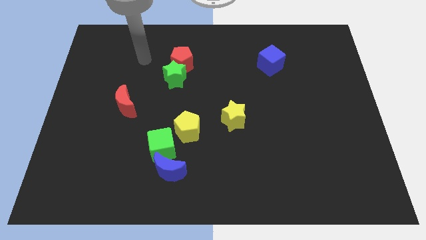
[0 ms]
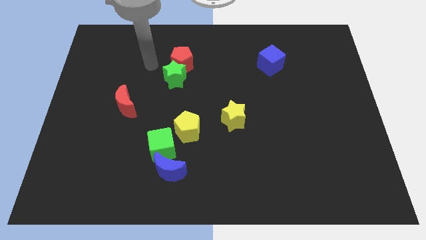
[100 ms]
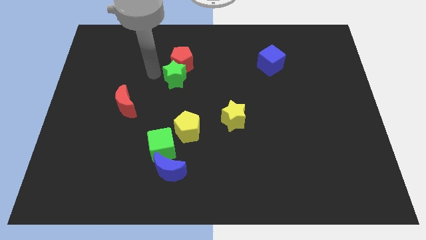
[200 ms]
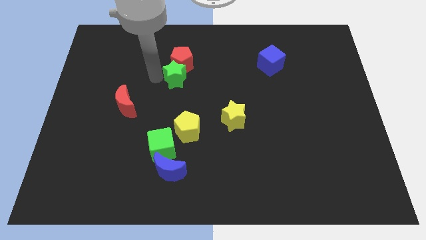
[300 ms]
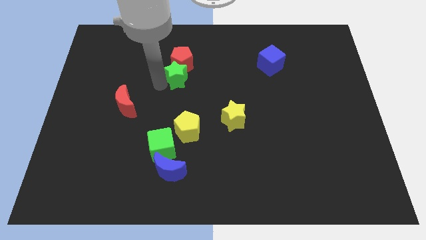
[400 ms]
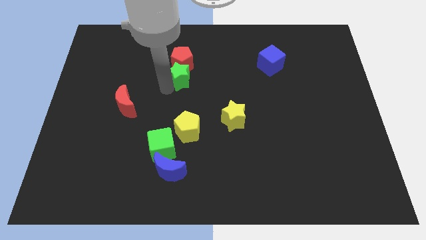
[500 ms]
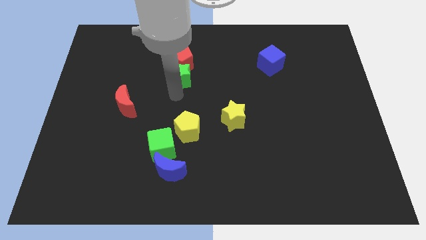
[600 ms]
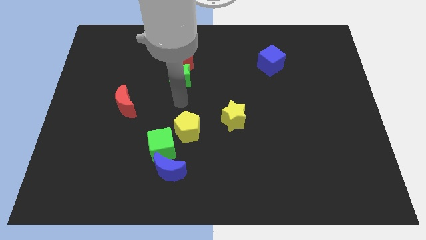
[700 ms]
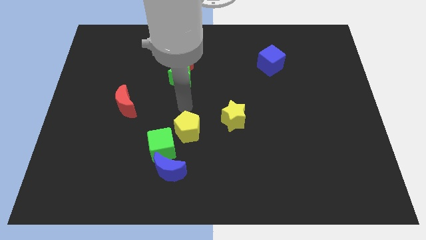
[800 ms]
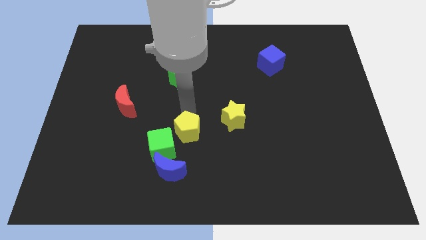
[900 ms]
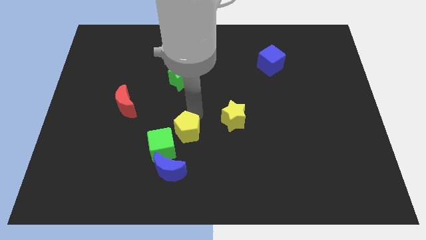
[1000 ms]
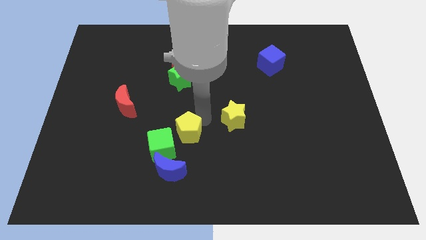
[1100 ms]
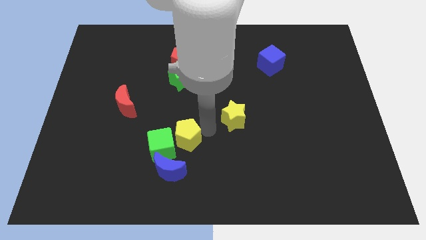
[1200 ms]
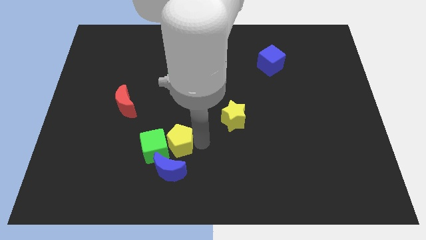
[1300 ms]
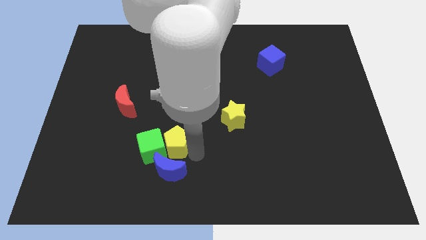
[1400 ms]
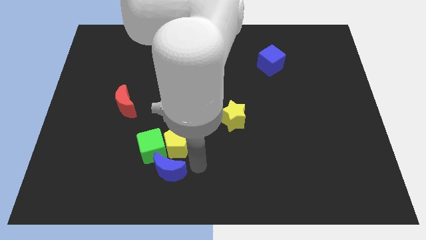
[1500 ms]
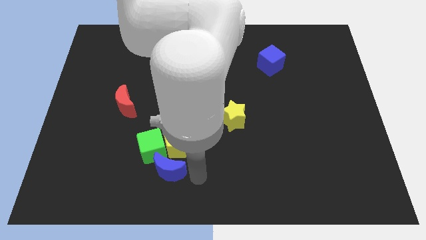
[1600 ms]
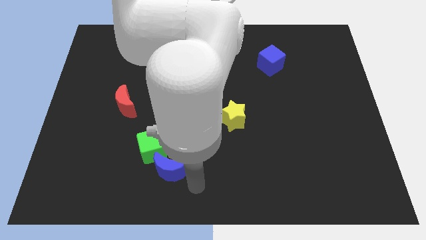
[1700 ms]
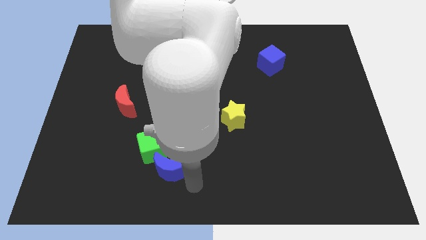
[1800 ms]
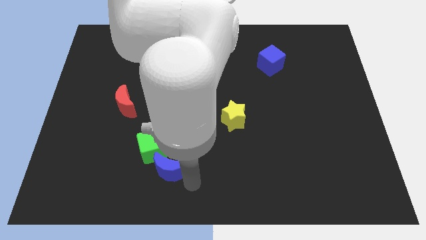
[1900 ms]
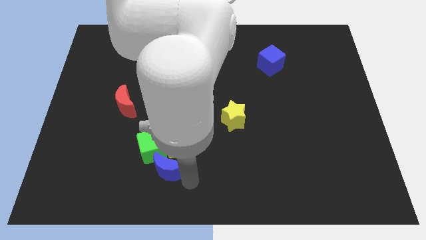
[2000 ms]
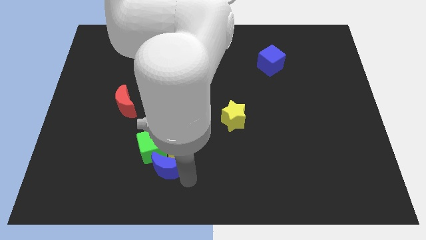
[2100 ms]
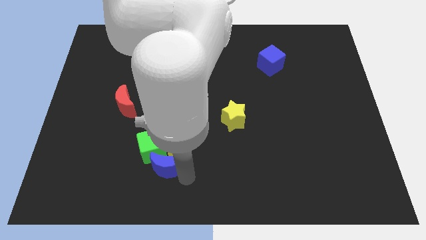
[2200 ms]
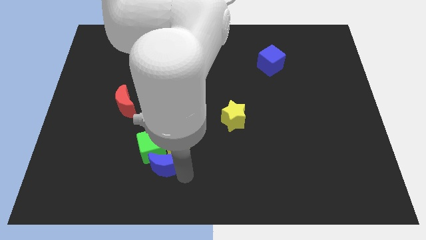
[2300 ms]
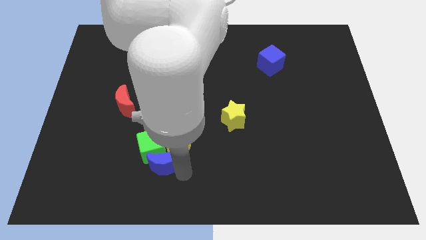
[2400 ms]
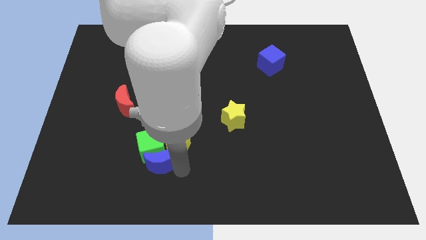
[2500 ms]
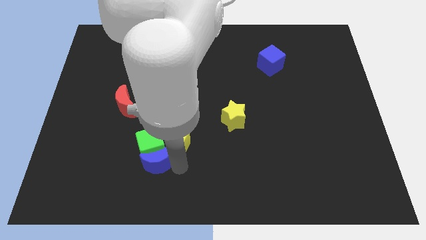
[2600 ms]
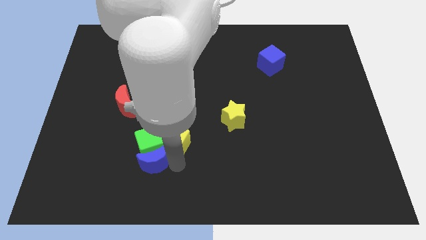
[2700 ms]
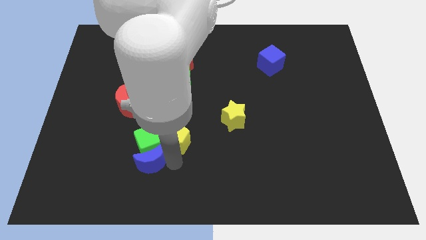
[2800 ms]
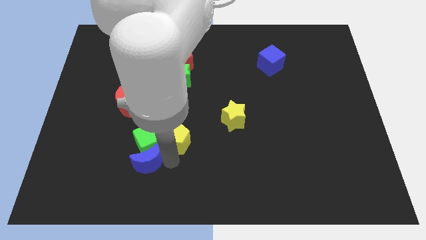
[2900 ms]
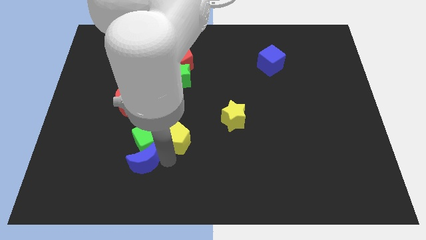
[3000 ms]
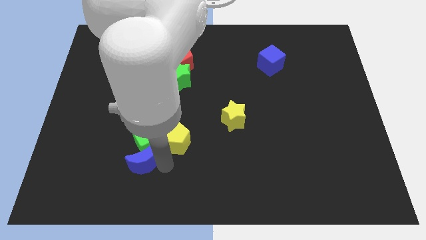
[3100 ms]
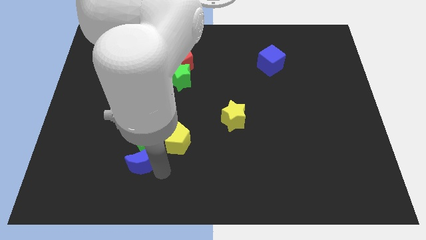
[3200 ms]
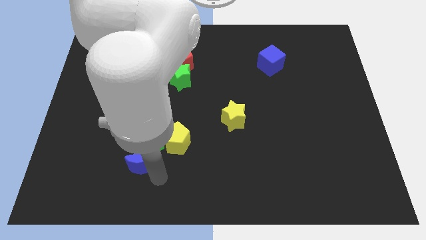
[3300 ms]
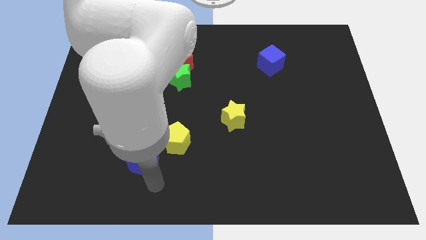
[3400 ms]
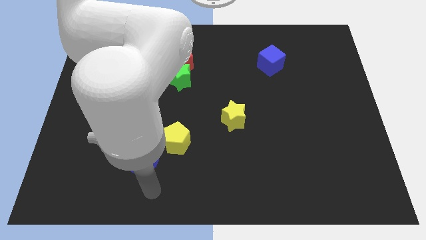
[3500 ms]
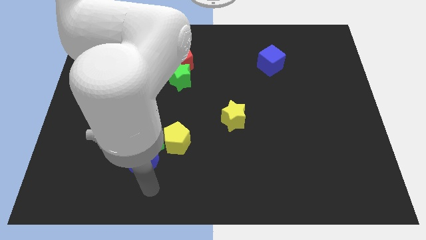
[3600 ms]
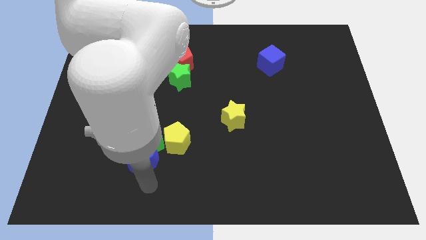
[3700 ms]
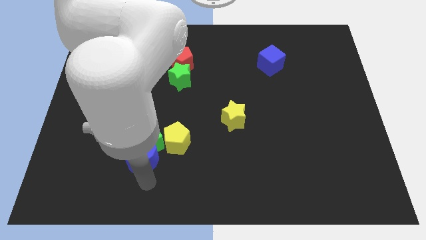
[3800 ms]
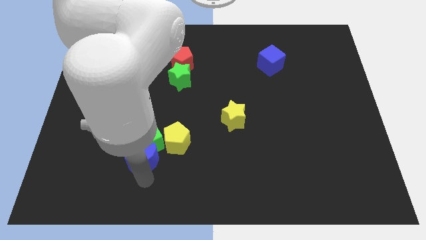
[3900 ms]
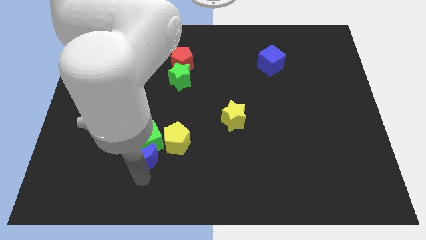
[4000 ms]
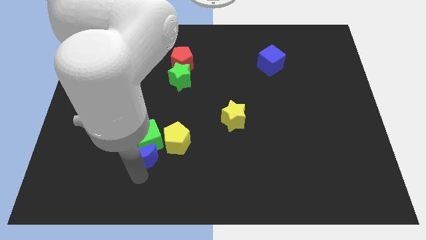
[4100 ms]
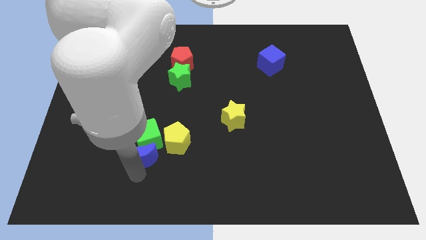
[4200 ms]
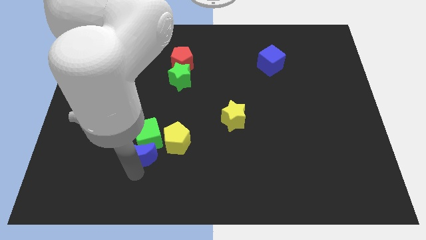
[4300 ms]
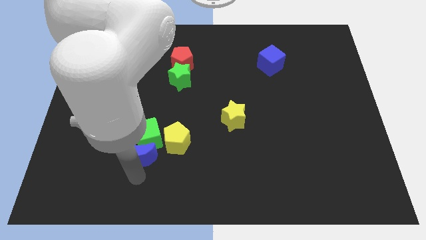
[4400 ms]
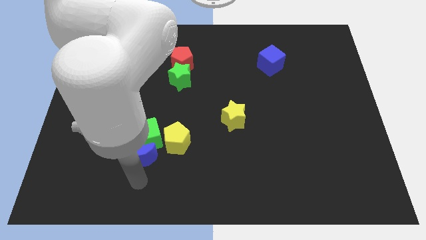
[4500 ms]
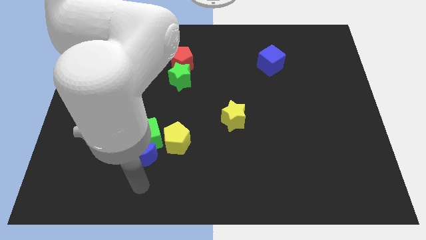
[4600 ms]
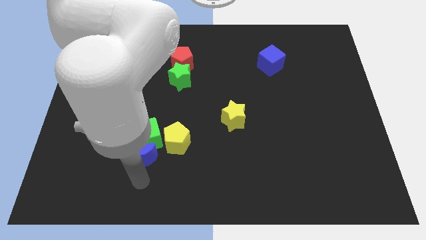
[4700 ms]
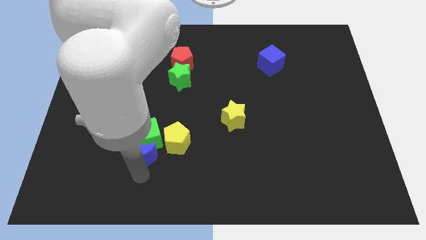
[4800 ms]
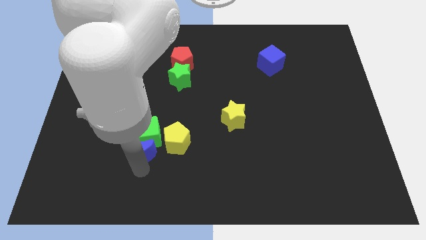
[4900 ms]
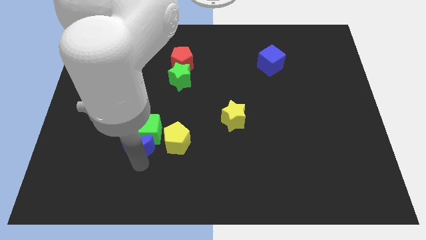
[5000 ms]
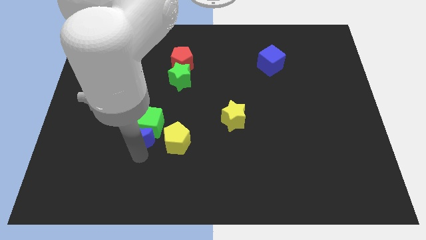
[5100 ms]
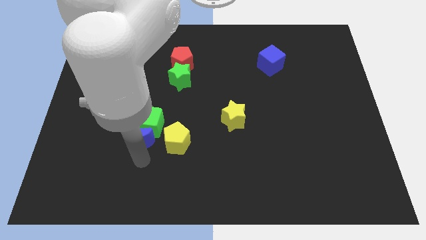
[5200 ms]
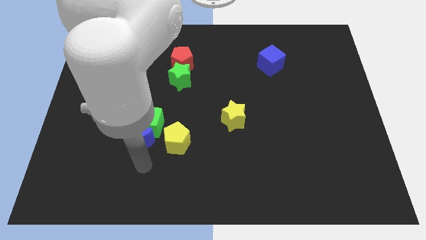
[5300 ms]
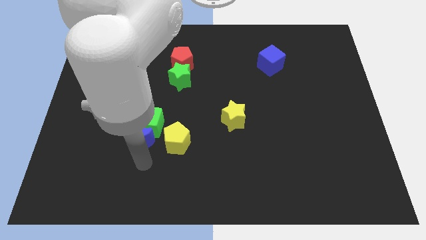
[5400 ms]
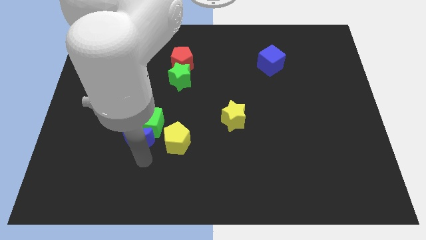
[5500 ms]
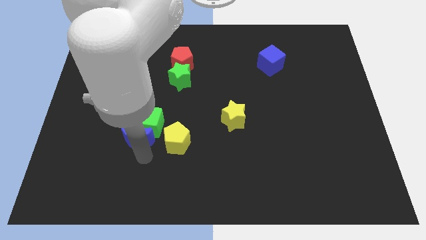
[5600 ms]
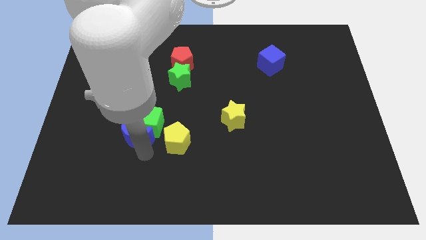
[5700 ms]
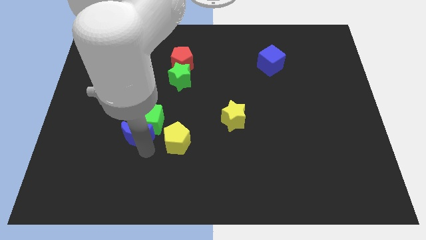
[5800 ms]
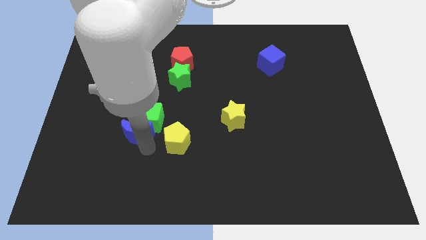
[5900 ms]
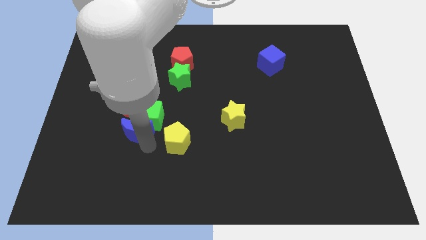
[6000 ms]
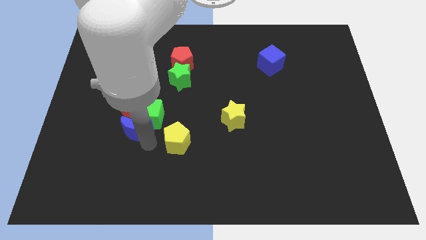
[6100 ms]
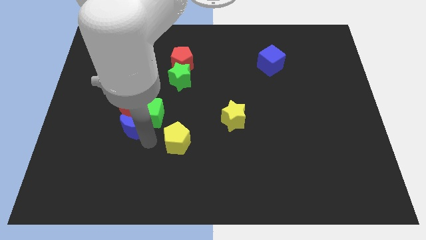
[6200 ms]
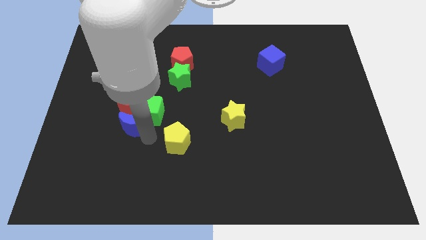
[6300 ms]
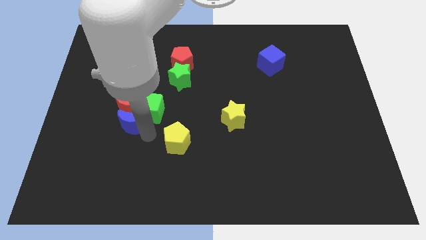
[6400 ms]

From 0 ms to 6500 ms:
push the blue moon to the red moon

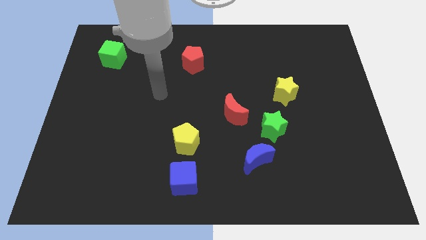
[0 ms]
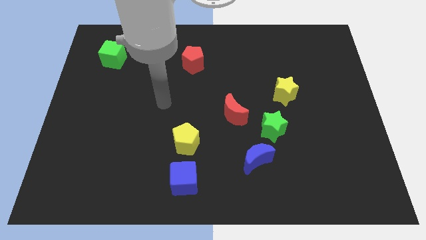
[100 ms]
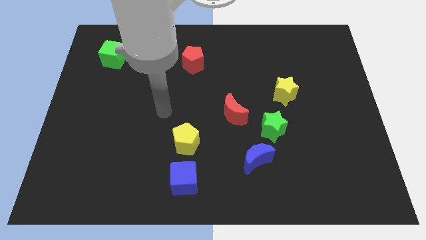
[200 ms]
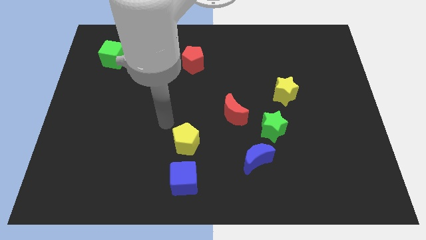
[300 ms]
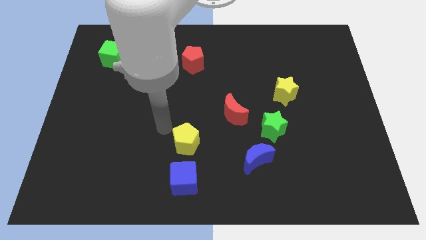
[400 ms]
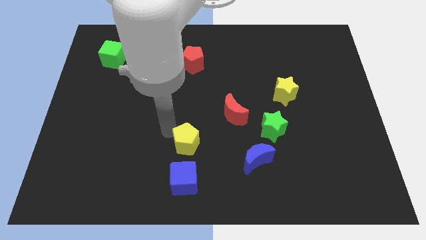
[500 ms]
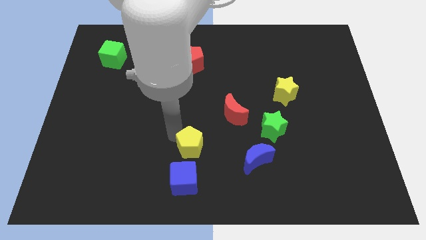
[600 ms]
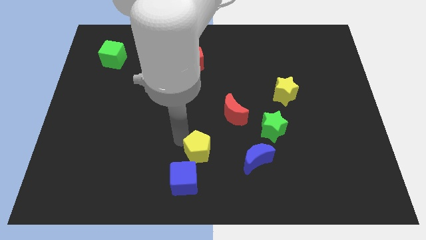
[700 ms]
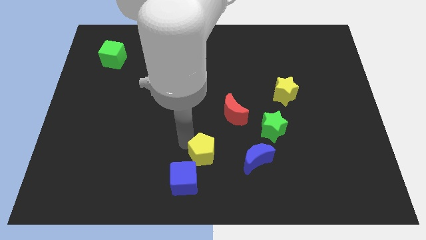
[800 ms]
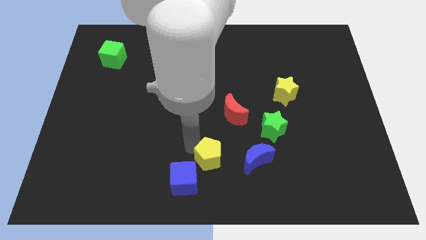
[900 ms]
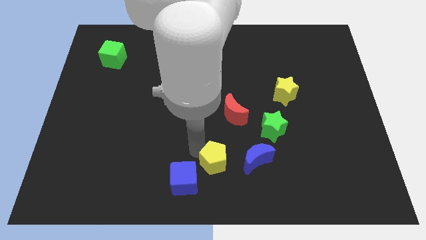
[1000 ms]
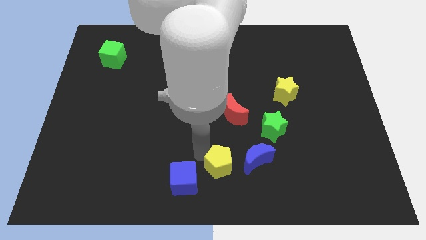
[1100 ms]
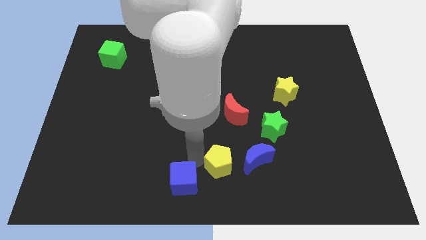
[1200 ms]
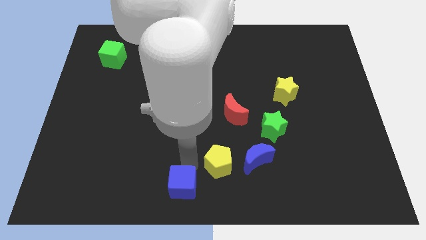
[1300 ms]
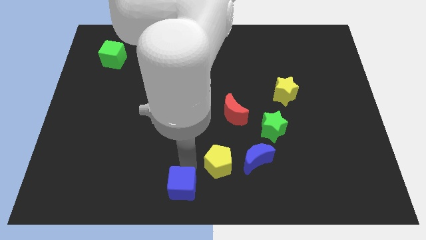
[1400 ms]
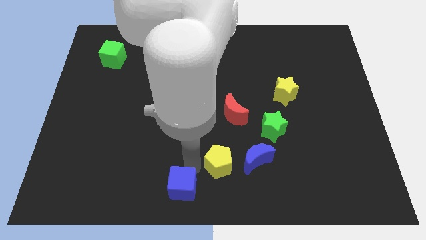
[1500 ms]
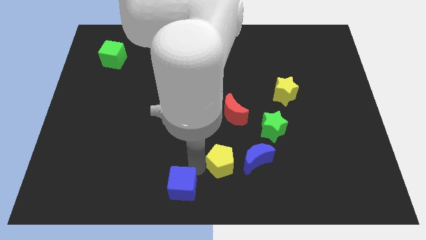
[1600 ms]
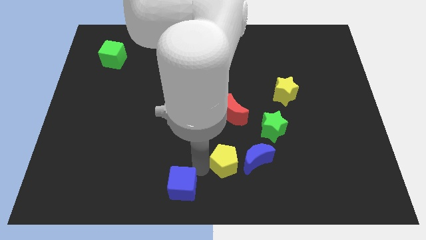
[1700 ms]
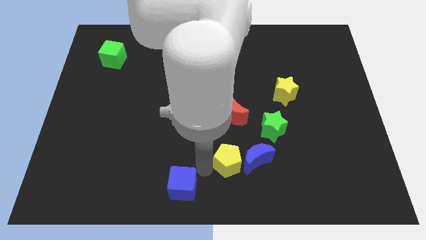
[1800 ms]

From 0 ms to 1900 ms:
move the yellow pentagon towards the blue moon
